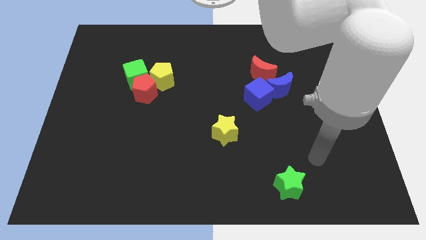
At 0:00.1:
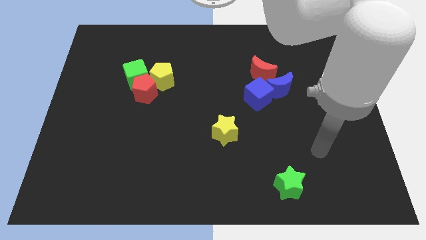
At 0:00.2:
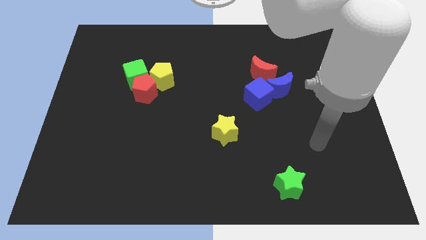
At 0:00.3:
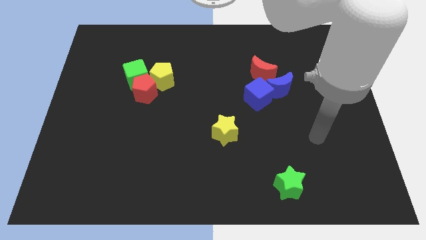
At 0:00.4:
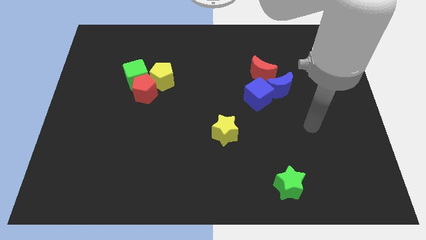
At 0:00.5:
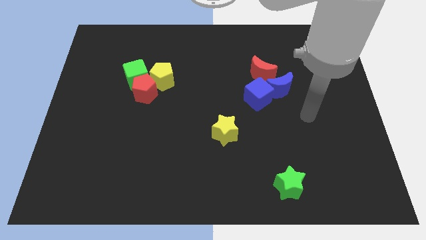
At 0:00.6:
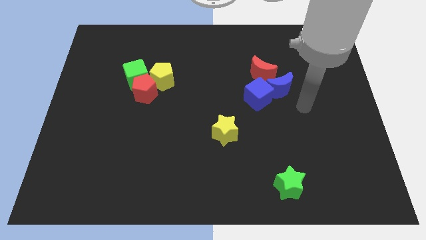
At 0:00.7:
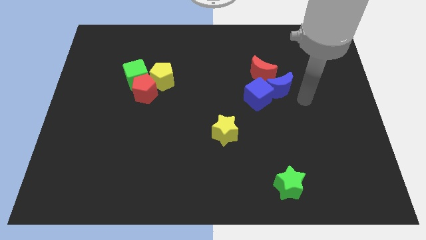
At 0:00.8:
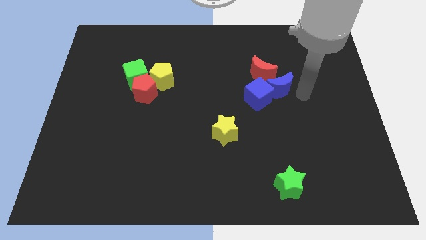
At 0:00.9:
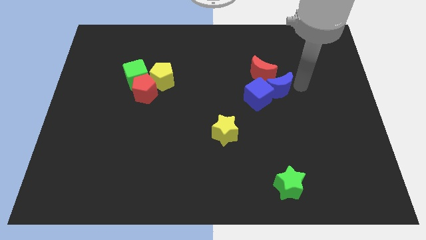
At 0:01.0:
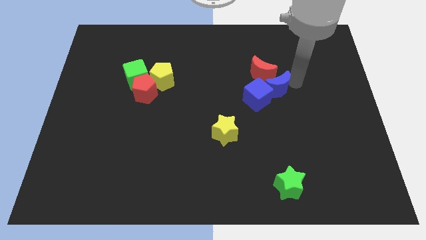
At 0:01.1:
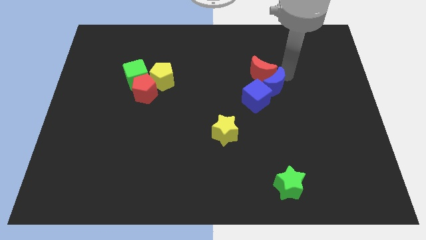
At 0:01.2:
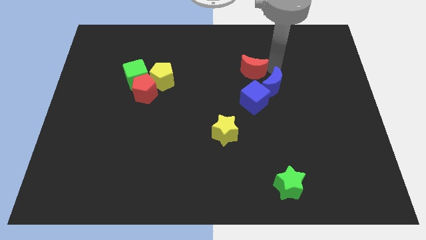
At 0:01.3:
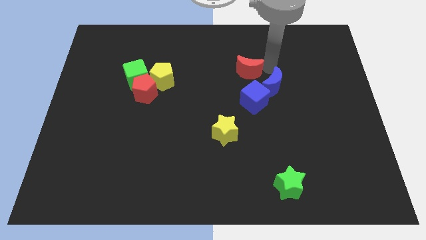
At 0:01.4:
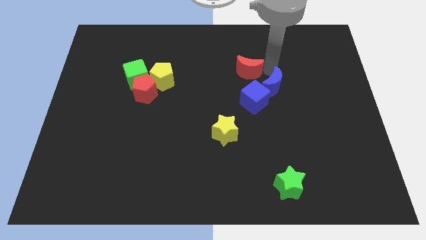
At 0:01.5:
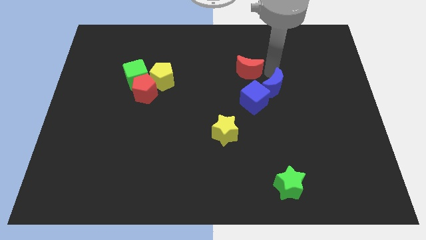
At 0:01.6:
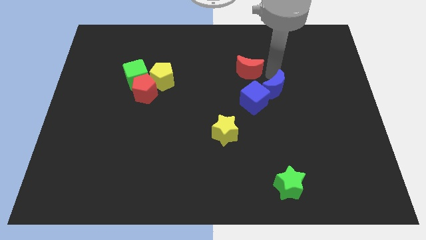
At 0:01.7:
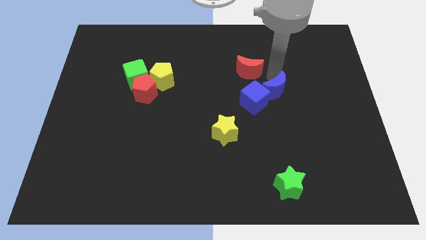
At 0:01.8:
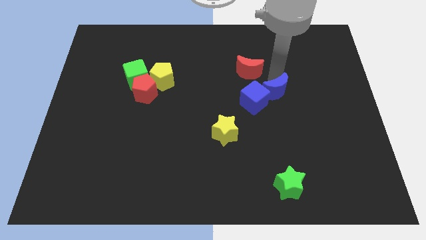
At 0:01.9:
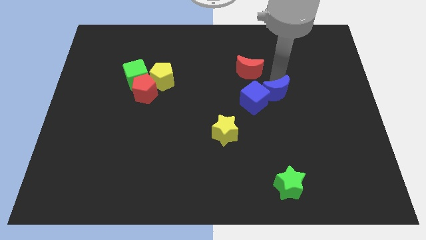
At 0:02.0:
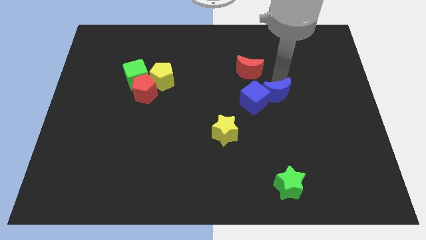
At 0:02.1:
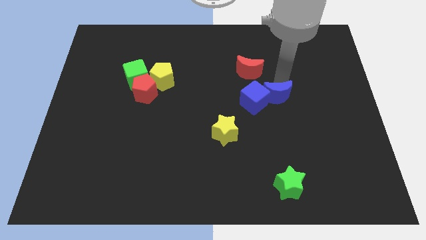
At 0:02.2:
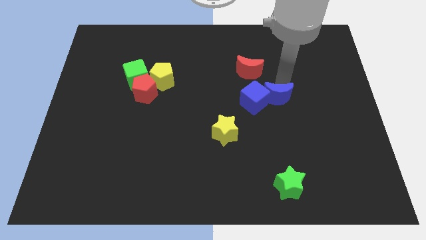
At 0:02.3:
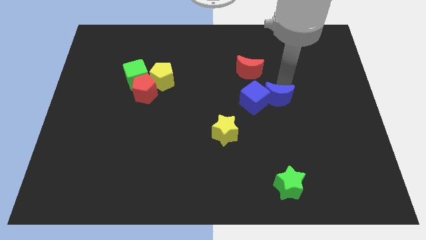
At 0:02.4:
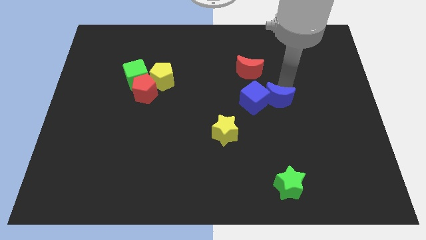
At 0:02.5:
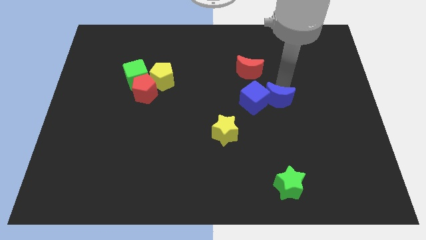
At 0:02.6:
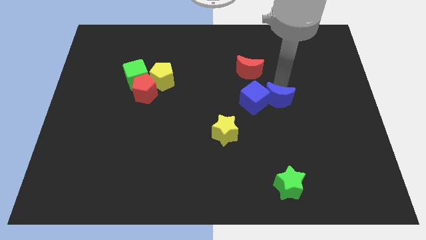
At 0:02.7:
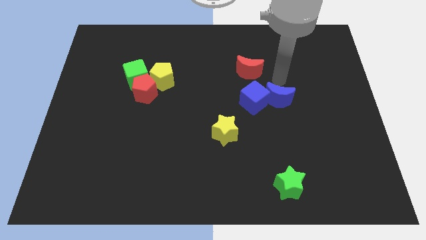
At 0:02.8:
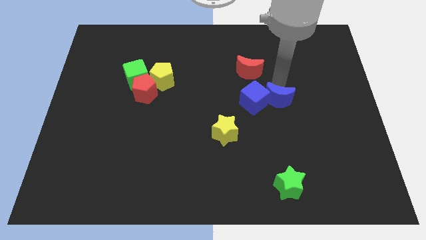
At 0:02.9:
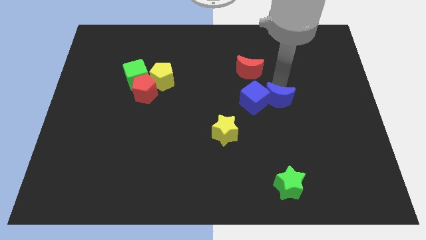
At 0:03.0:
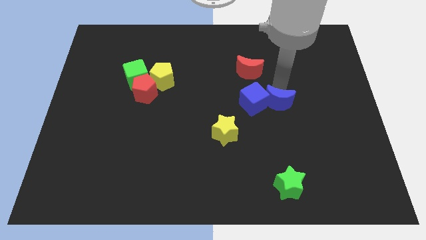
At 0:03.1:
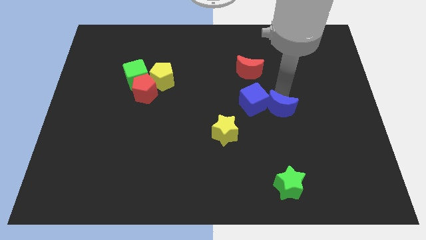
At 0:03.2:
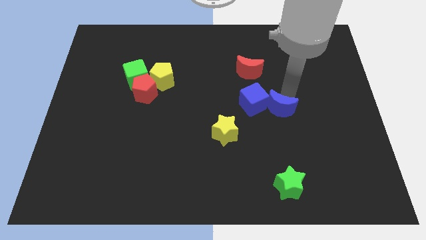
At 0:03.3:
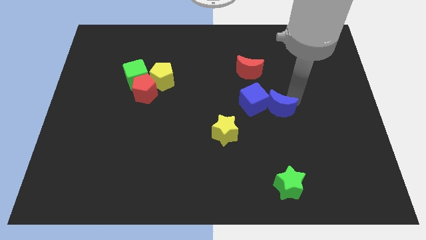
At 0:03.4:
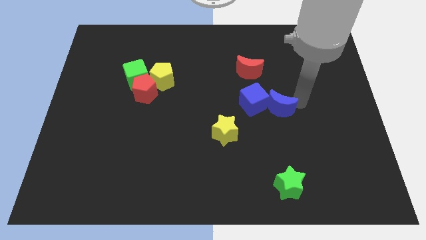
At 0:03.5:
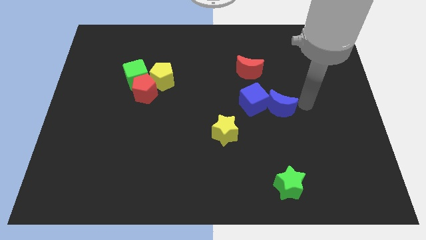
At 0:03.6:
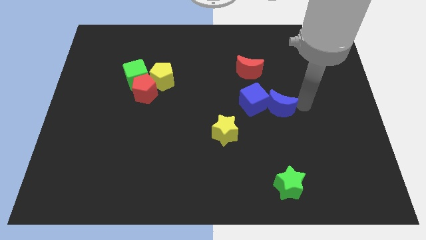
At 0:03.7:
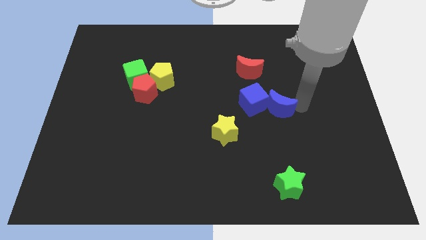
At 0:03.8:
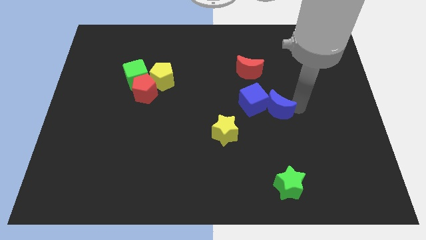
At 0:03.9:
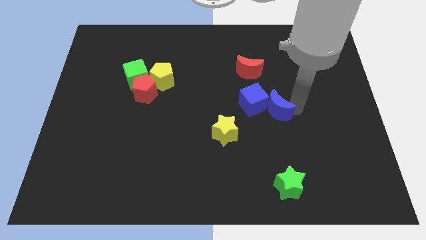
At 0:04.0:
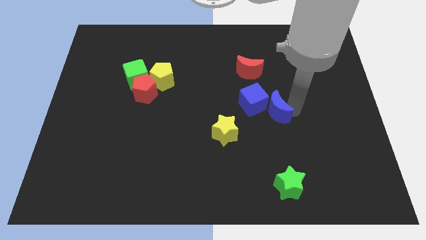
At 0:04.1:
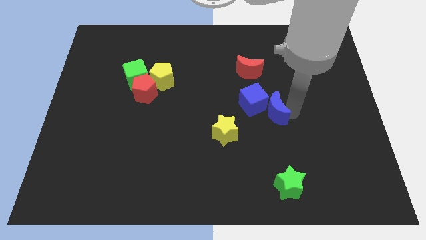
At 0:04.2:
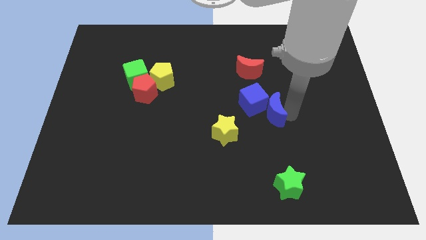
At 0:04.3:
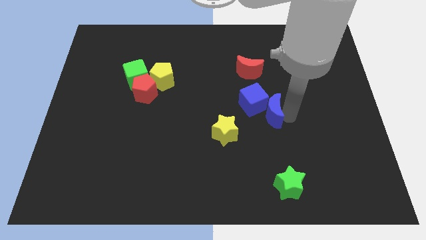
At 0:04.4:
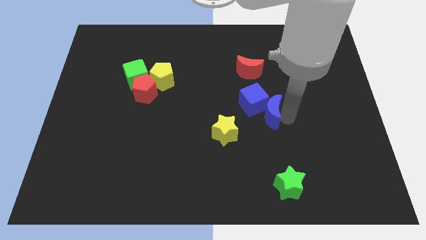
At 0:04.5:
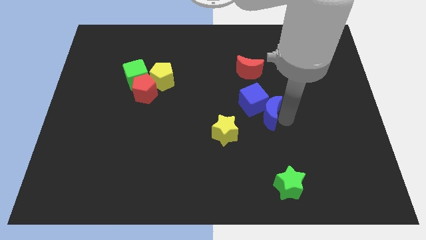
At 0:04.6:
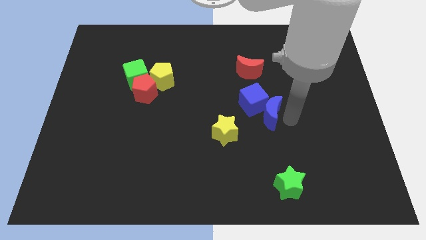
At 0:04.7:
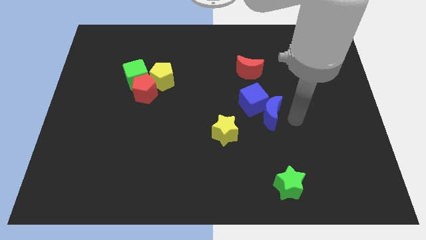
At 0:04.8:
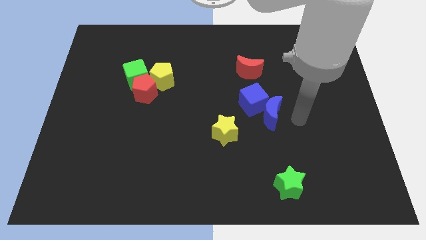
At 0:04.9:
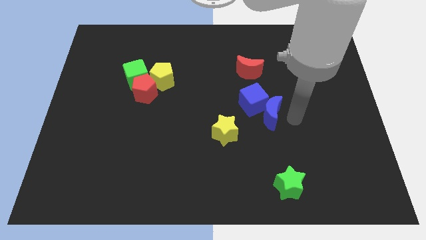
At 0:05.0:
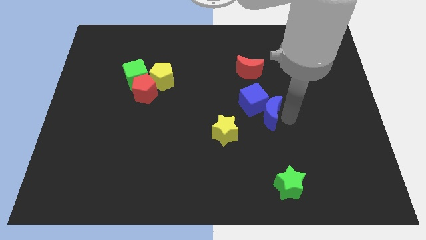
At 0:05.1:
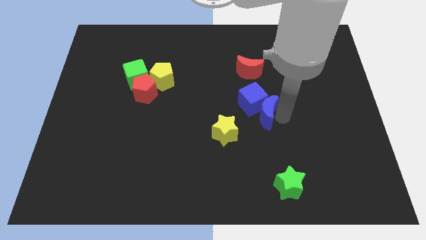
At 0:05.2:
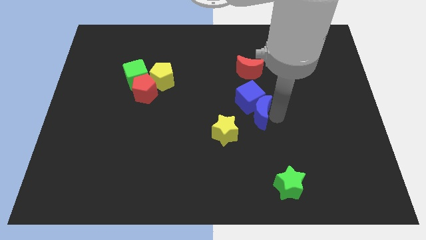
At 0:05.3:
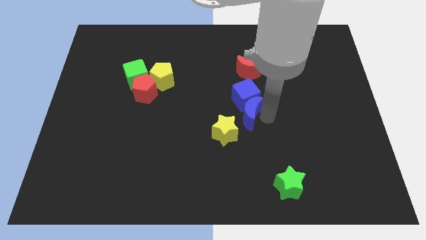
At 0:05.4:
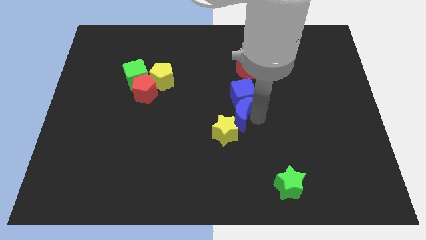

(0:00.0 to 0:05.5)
slide the blue moon to the left slightly

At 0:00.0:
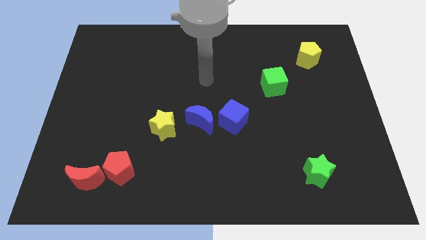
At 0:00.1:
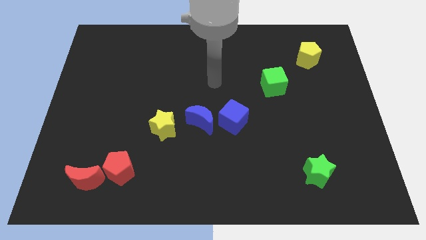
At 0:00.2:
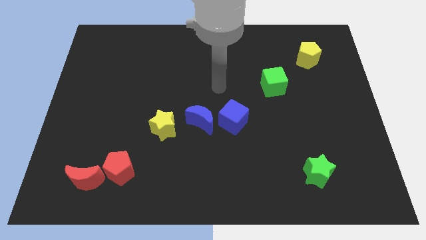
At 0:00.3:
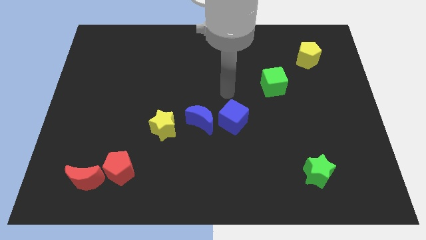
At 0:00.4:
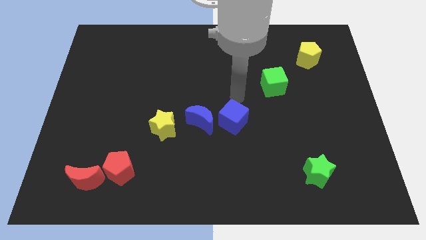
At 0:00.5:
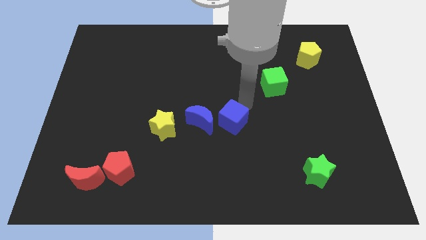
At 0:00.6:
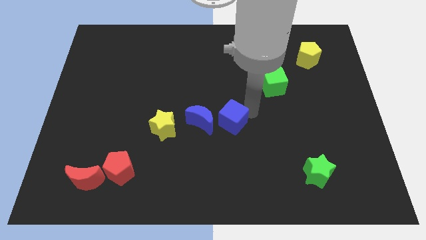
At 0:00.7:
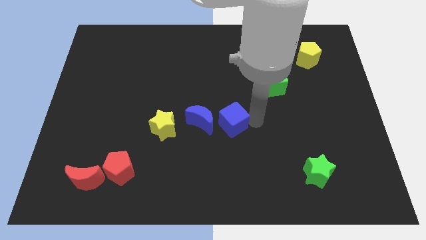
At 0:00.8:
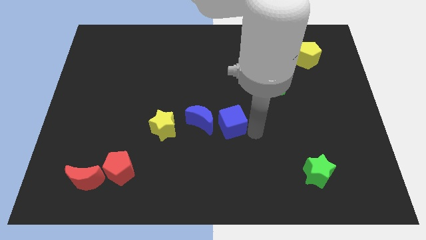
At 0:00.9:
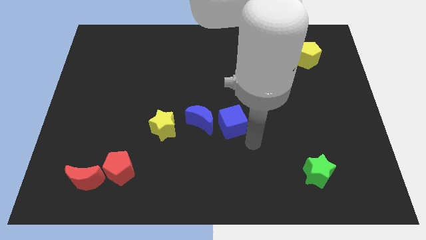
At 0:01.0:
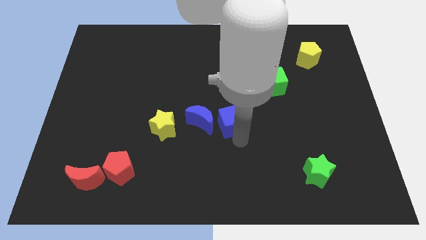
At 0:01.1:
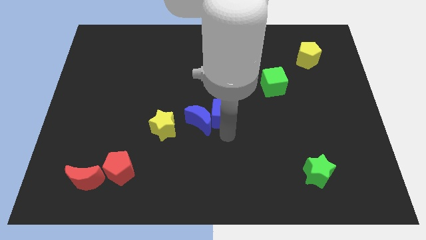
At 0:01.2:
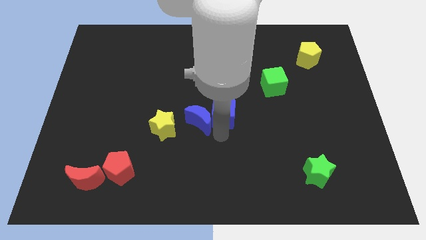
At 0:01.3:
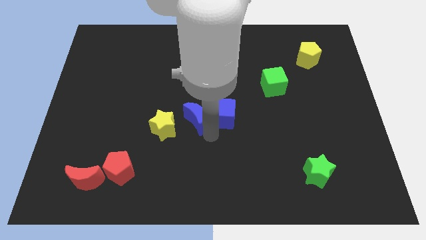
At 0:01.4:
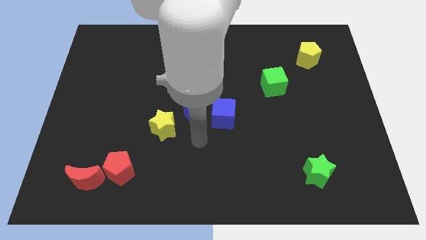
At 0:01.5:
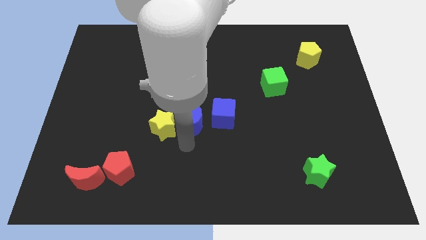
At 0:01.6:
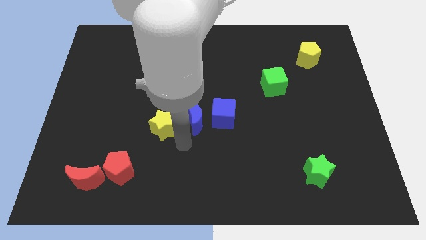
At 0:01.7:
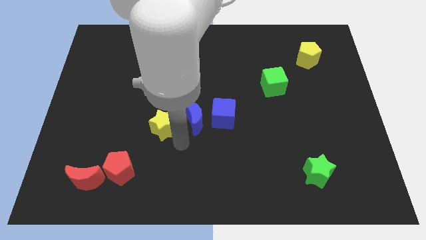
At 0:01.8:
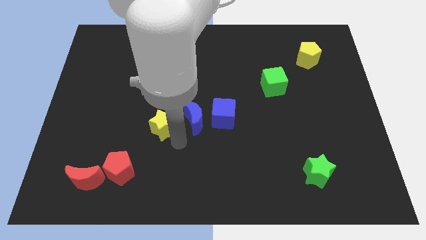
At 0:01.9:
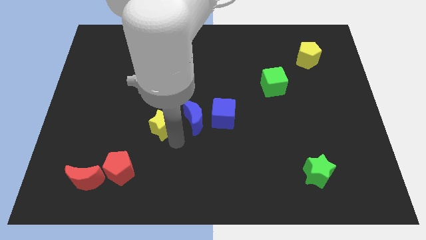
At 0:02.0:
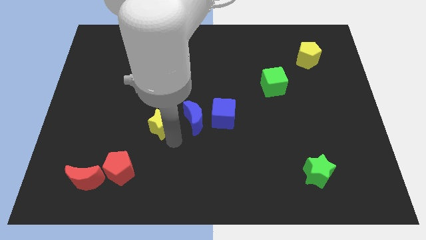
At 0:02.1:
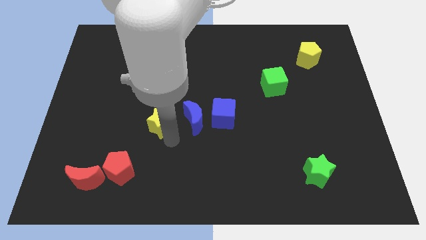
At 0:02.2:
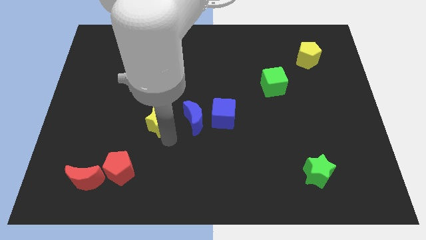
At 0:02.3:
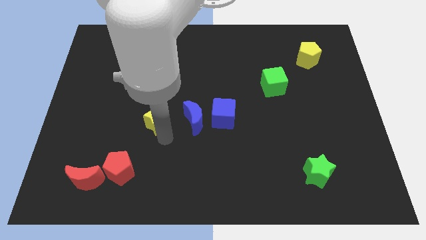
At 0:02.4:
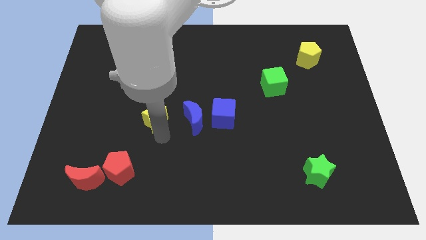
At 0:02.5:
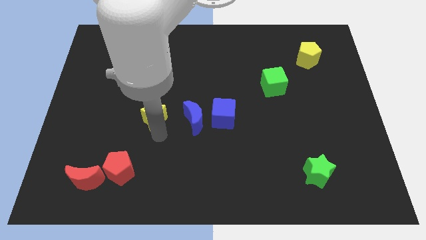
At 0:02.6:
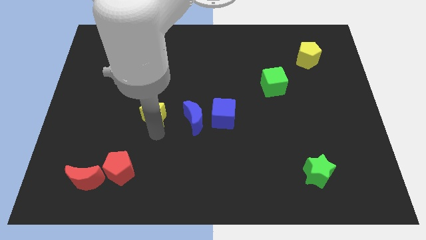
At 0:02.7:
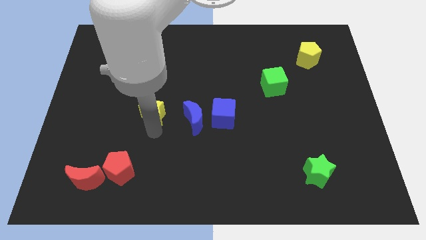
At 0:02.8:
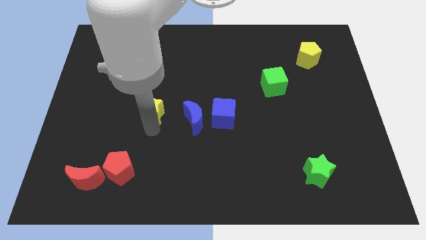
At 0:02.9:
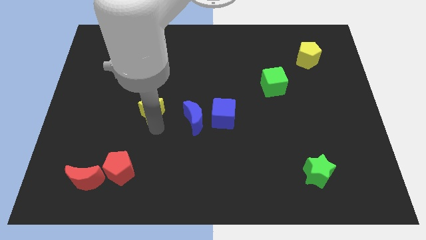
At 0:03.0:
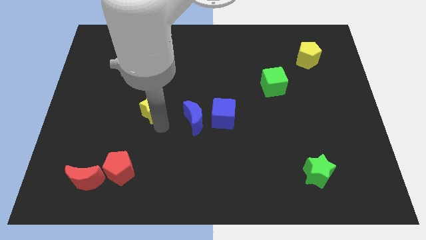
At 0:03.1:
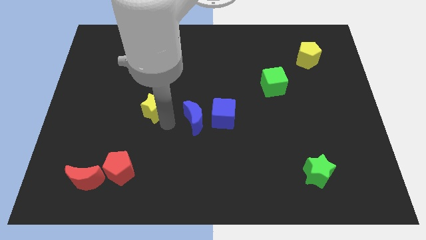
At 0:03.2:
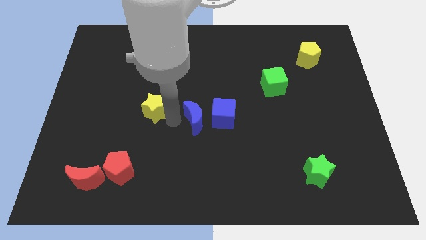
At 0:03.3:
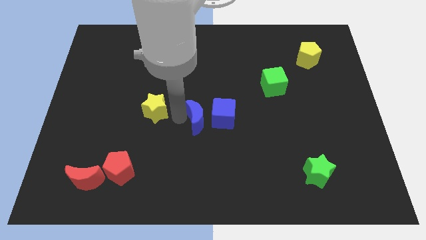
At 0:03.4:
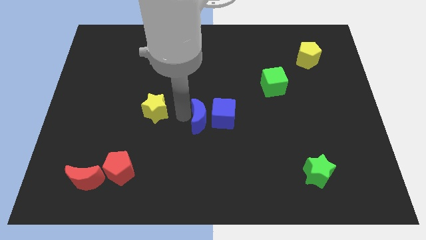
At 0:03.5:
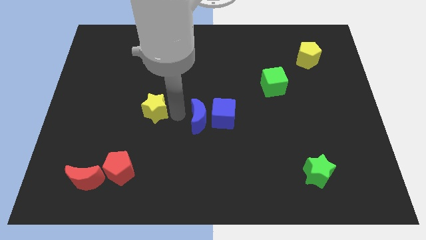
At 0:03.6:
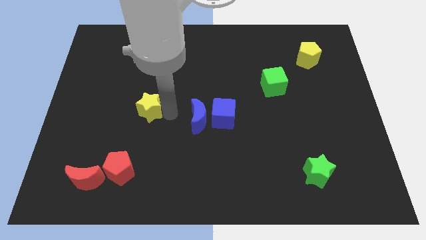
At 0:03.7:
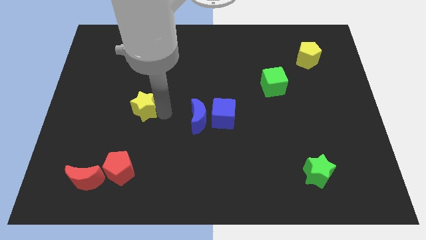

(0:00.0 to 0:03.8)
slightly push the yellow star up and then left
